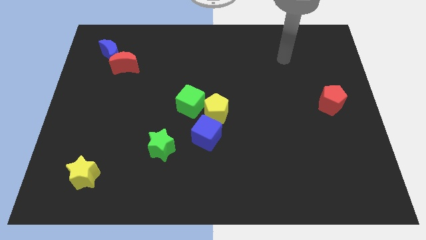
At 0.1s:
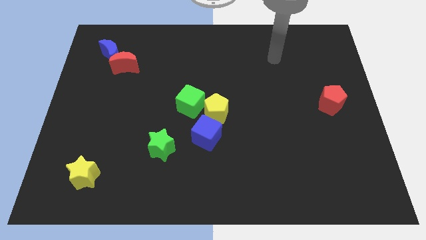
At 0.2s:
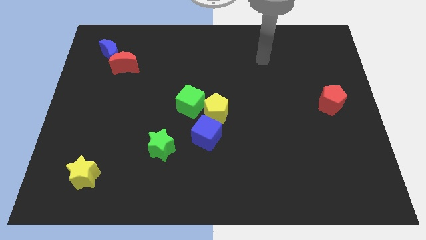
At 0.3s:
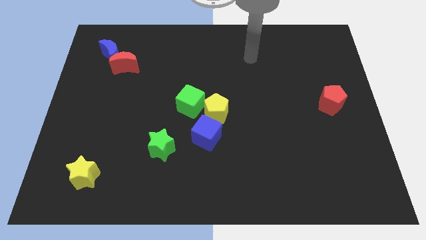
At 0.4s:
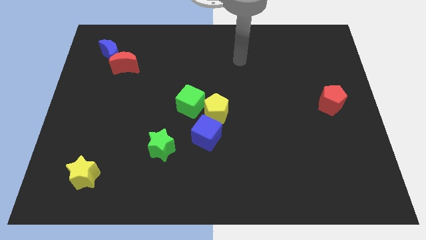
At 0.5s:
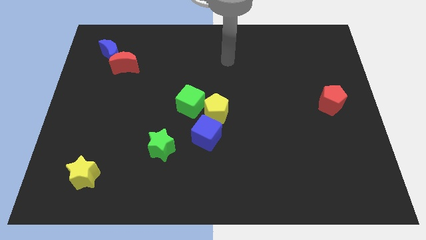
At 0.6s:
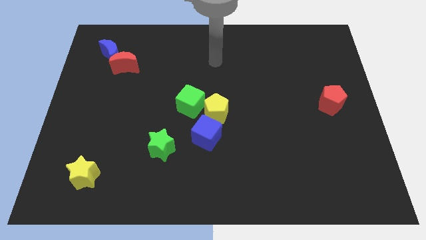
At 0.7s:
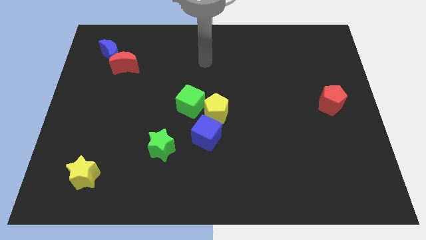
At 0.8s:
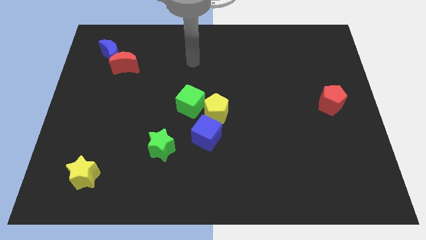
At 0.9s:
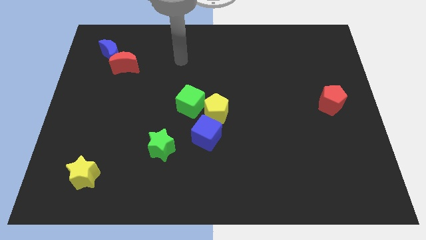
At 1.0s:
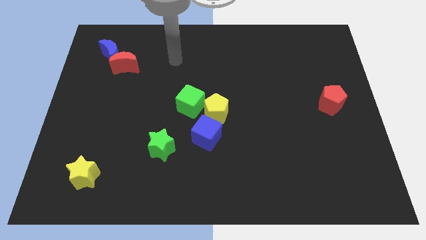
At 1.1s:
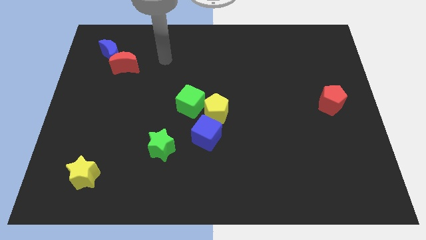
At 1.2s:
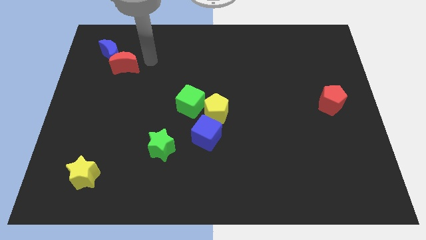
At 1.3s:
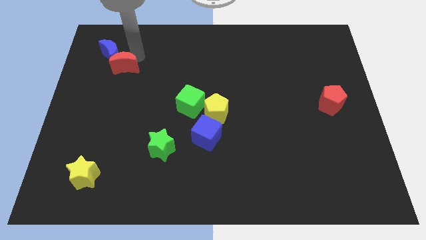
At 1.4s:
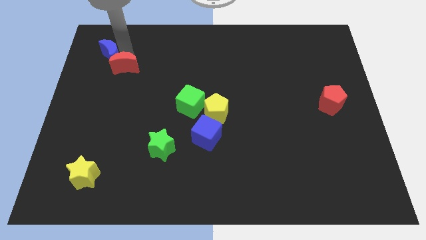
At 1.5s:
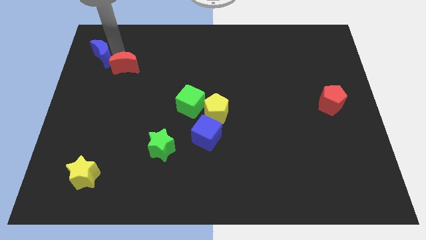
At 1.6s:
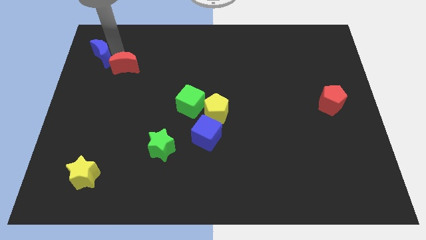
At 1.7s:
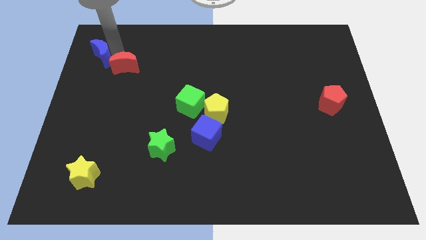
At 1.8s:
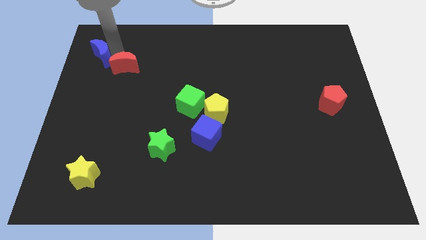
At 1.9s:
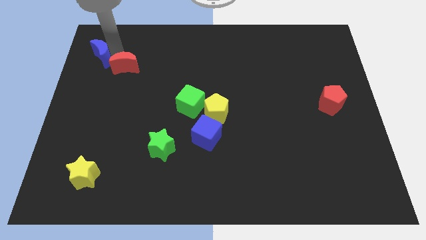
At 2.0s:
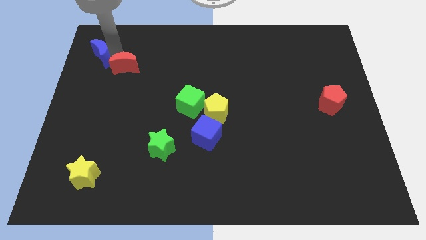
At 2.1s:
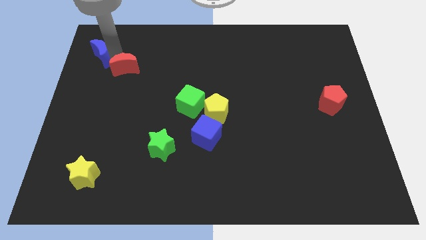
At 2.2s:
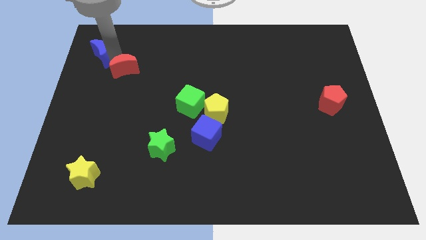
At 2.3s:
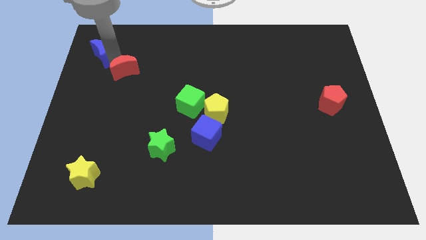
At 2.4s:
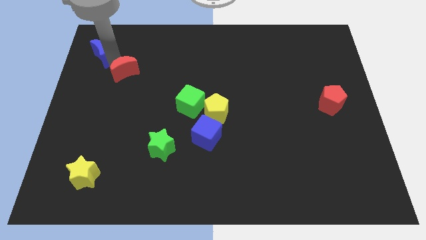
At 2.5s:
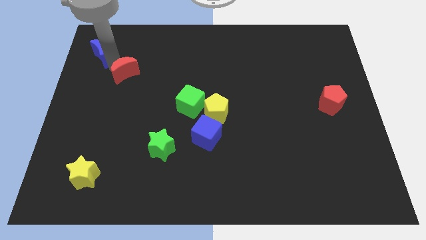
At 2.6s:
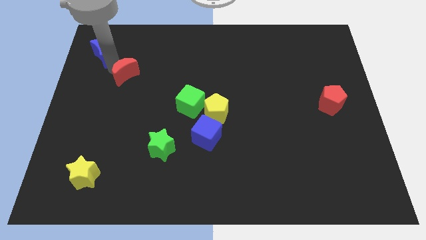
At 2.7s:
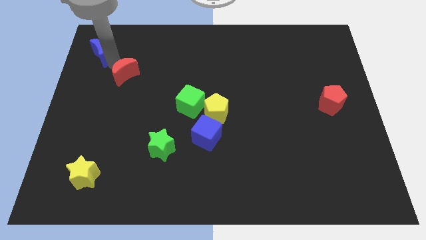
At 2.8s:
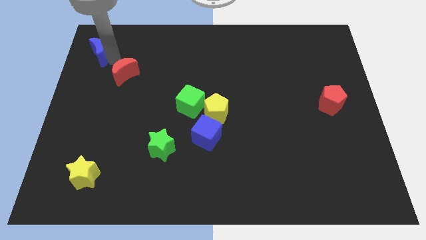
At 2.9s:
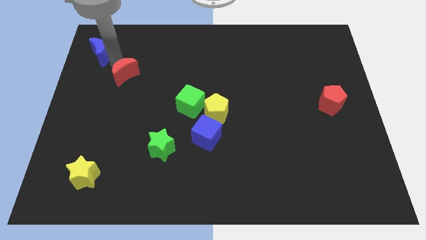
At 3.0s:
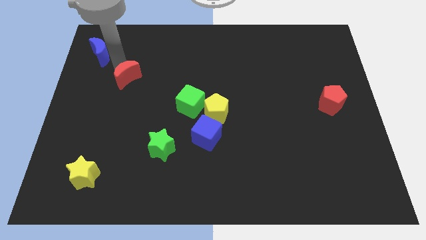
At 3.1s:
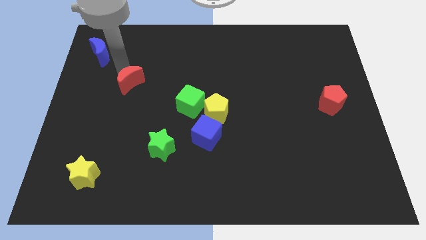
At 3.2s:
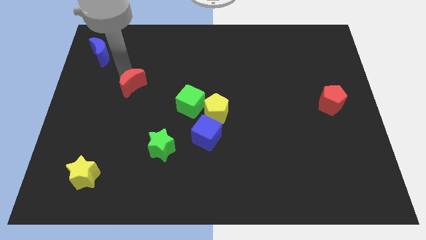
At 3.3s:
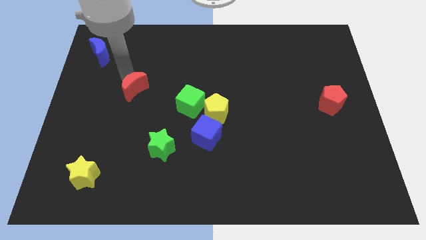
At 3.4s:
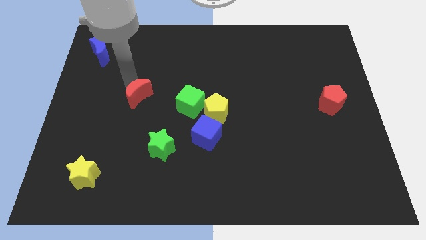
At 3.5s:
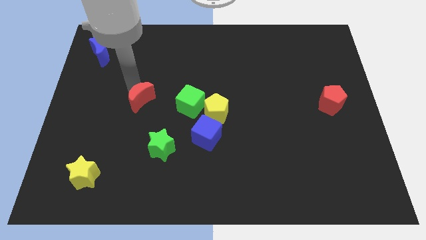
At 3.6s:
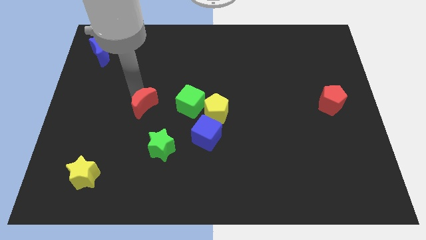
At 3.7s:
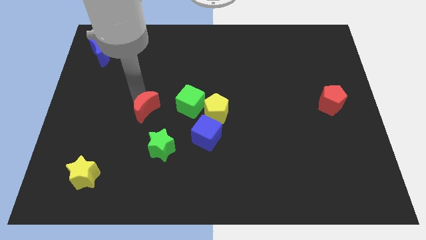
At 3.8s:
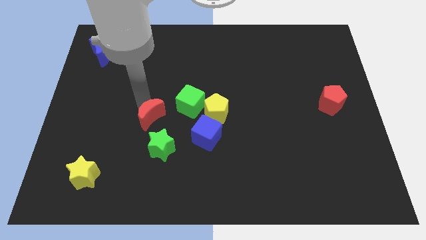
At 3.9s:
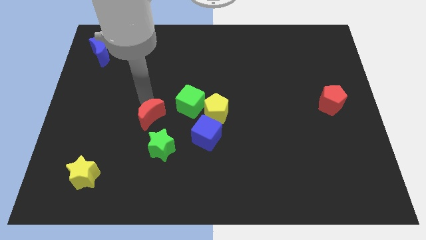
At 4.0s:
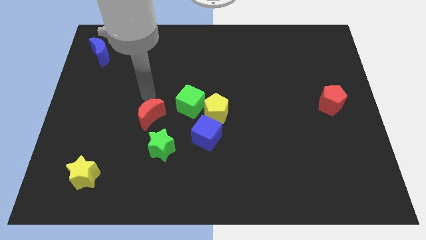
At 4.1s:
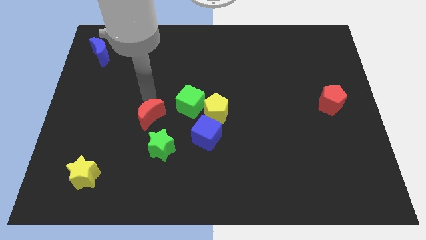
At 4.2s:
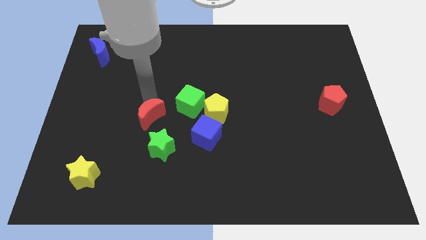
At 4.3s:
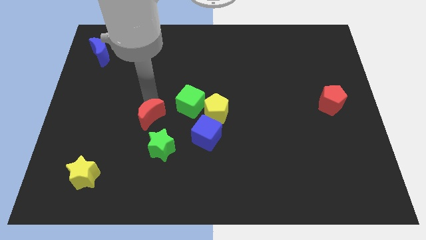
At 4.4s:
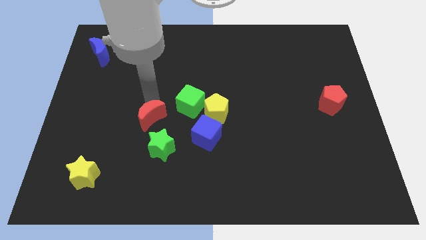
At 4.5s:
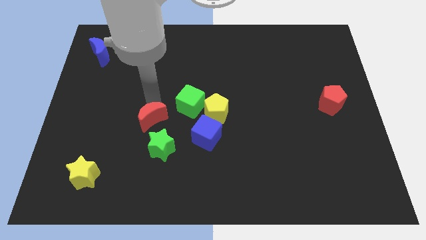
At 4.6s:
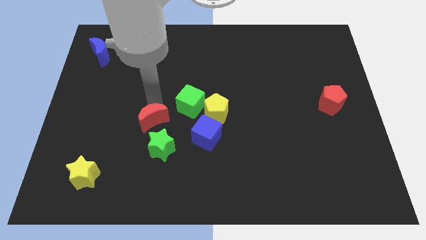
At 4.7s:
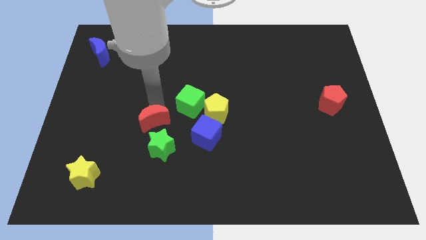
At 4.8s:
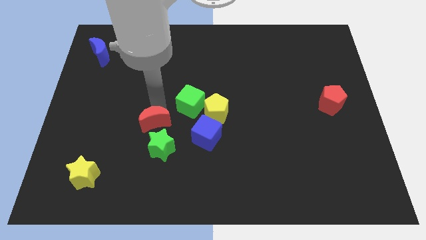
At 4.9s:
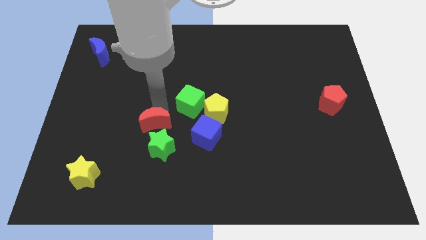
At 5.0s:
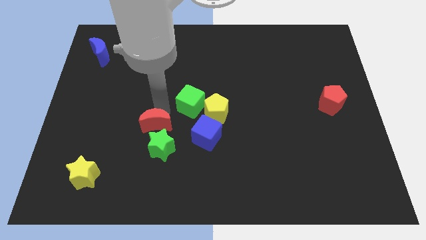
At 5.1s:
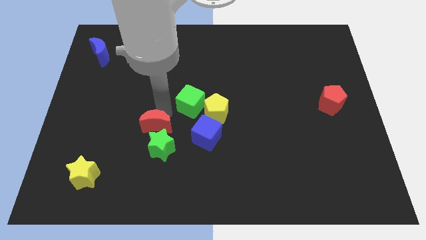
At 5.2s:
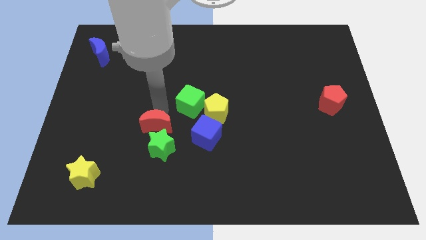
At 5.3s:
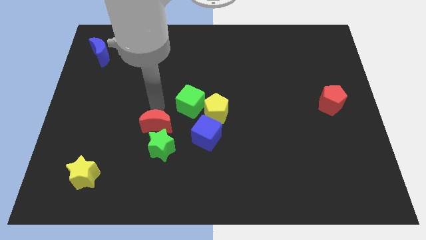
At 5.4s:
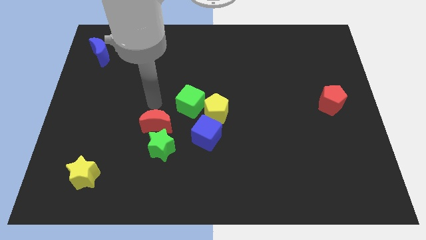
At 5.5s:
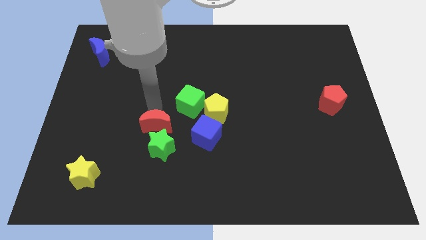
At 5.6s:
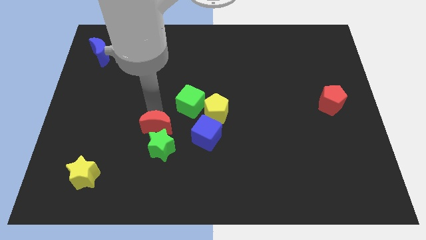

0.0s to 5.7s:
move the red moon next to the green star

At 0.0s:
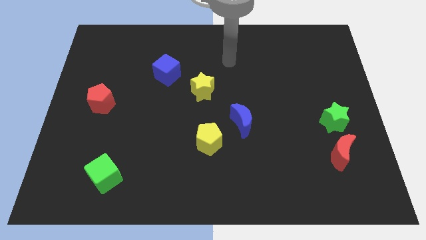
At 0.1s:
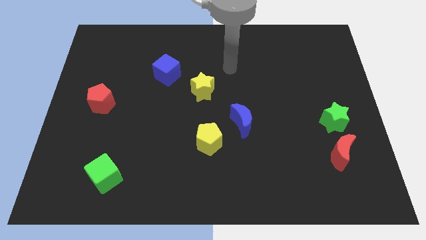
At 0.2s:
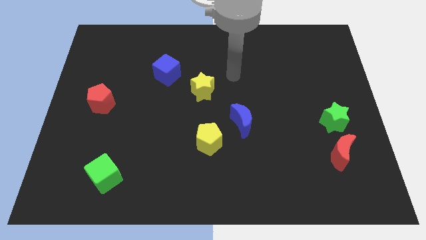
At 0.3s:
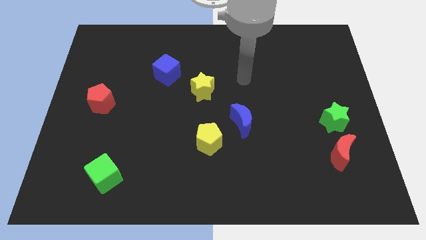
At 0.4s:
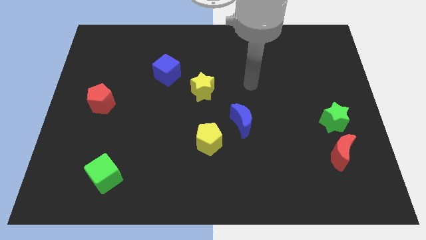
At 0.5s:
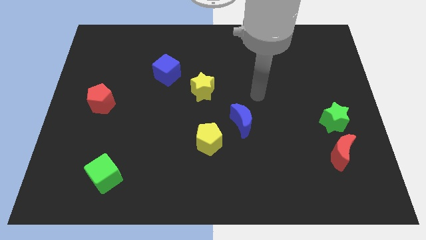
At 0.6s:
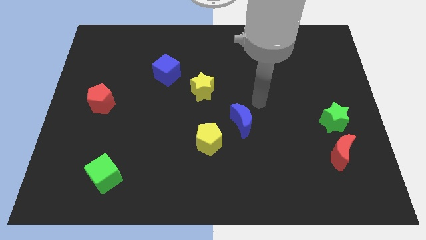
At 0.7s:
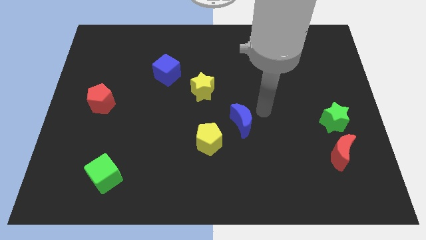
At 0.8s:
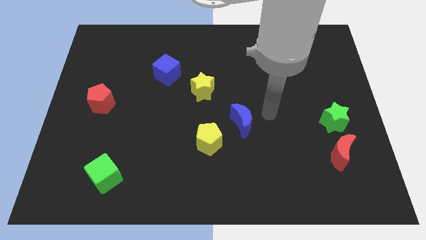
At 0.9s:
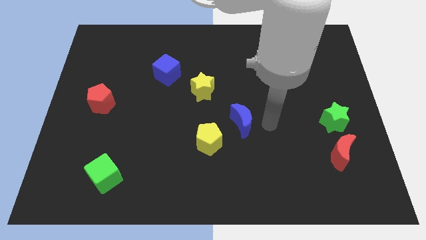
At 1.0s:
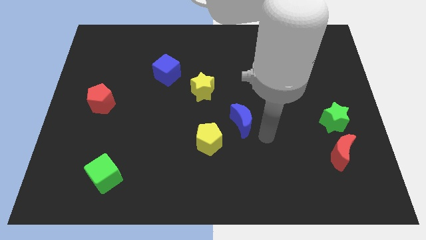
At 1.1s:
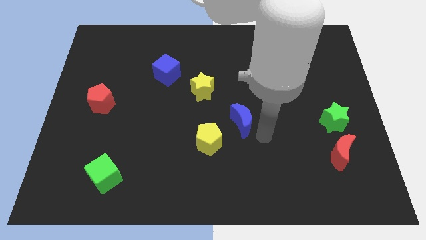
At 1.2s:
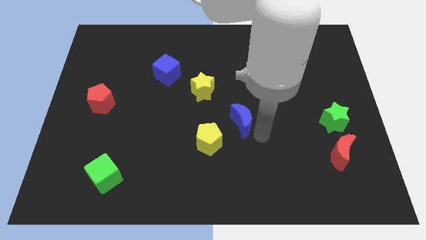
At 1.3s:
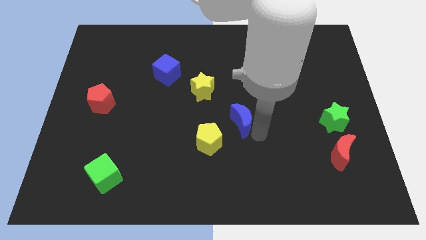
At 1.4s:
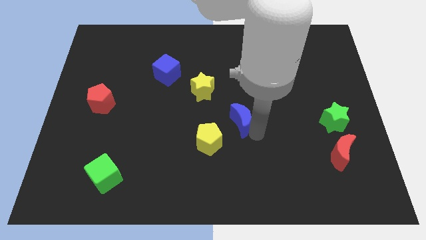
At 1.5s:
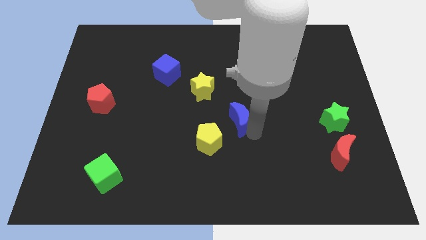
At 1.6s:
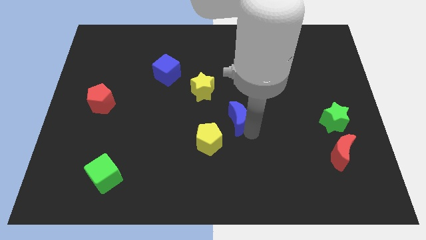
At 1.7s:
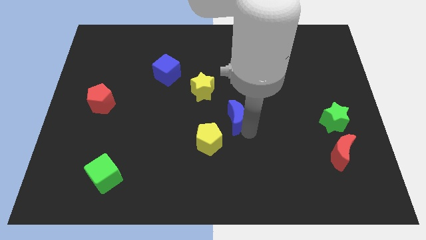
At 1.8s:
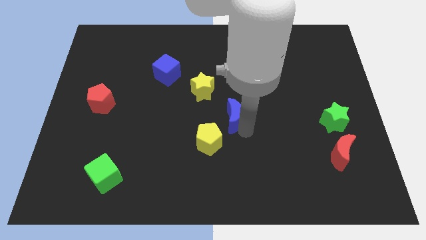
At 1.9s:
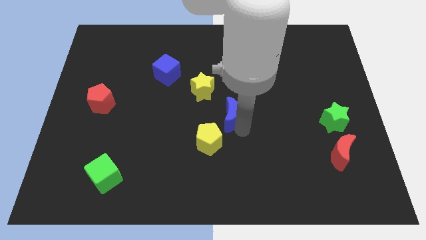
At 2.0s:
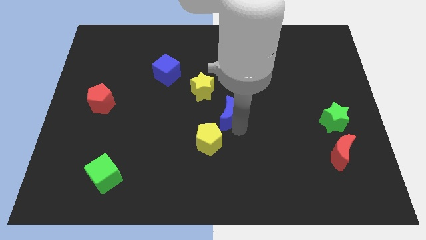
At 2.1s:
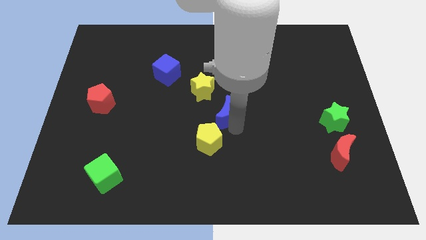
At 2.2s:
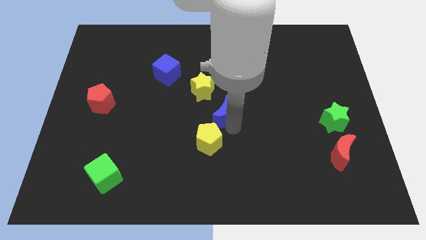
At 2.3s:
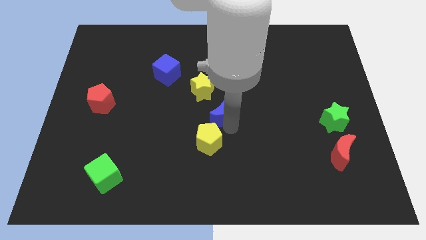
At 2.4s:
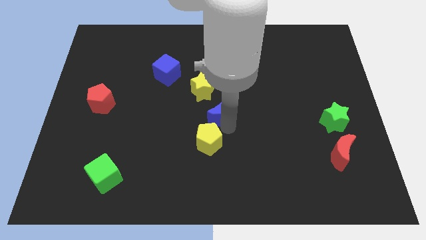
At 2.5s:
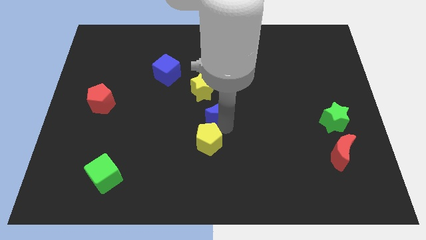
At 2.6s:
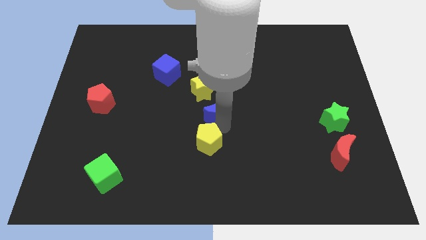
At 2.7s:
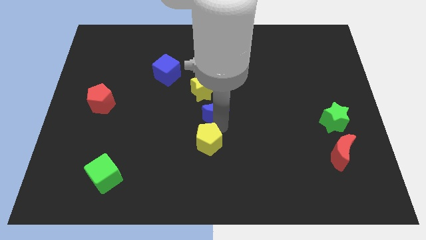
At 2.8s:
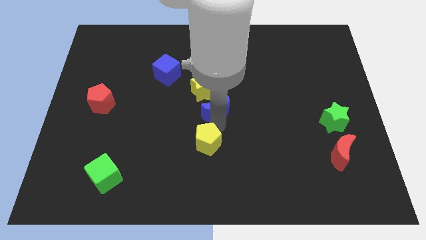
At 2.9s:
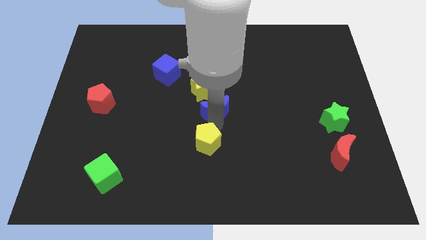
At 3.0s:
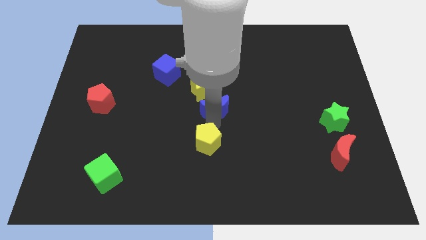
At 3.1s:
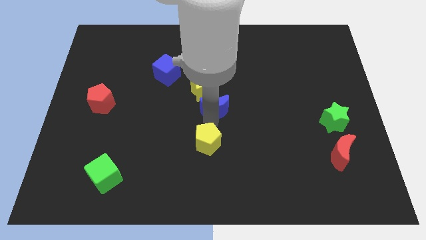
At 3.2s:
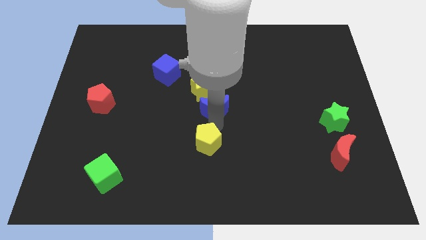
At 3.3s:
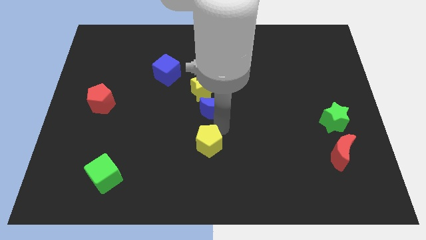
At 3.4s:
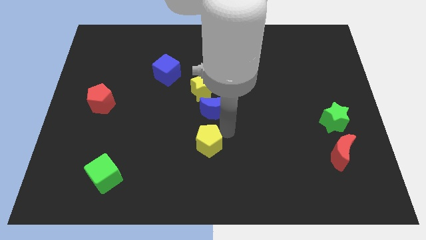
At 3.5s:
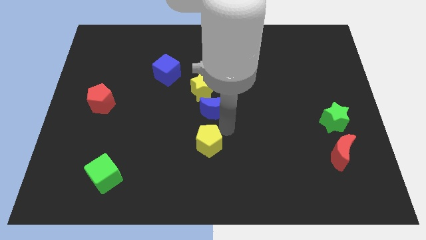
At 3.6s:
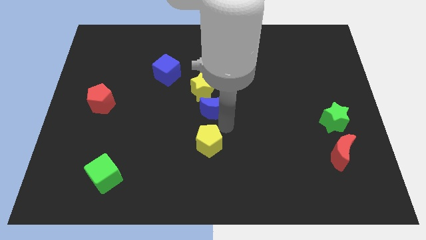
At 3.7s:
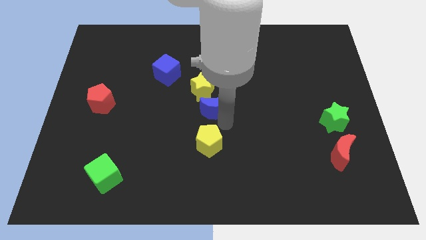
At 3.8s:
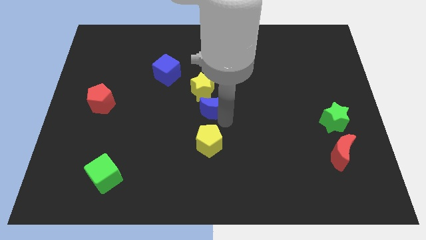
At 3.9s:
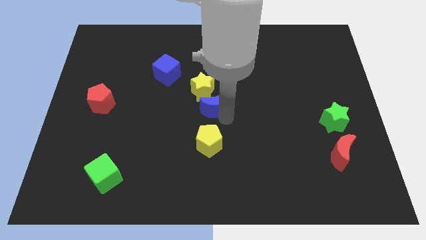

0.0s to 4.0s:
move the blue moon next to the yellow star
